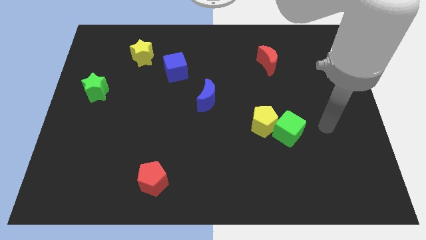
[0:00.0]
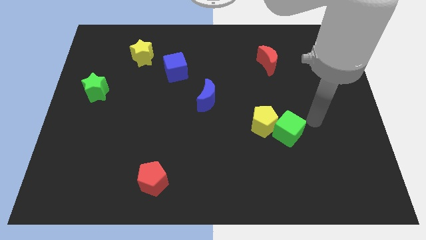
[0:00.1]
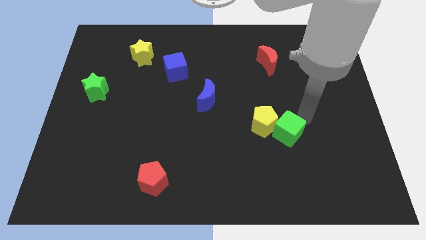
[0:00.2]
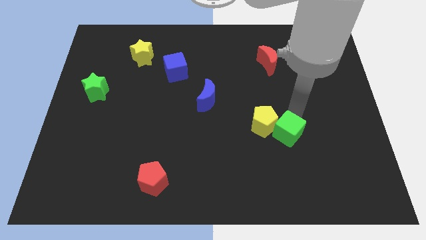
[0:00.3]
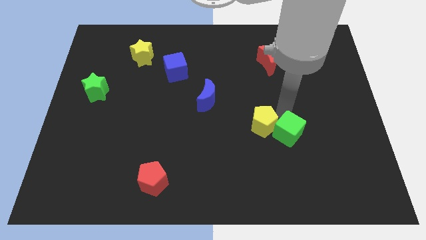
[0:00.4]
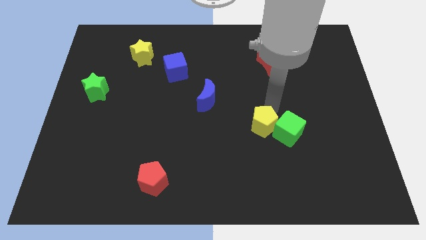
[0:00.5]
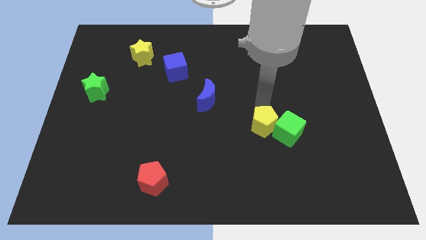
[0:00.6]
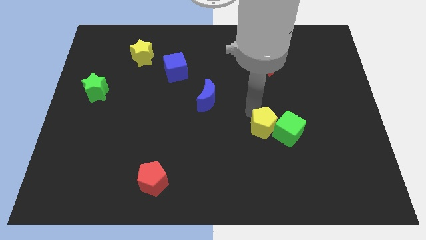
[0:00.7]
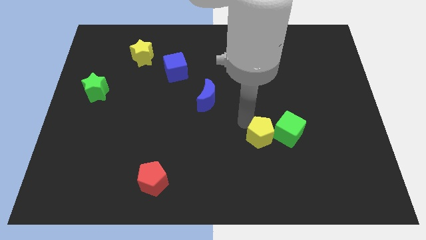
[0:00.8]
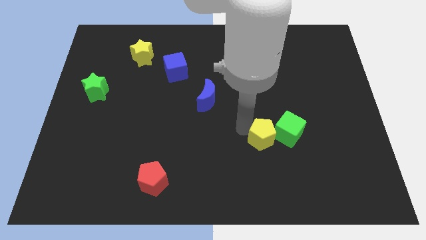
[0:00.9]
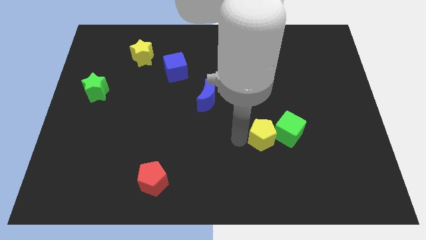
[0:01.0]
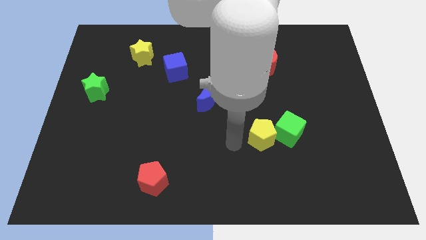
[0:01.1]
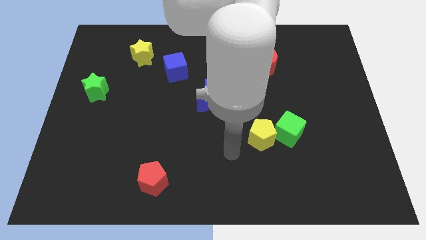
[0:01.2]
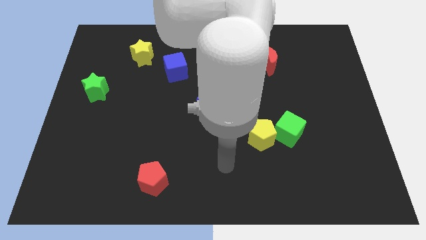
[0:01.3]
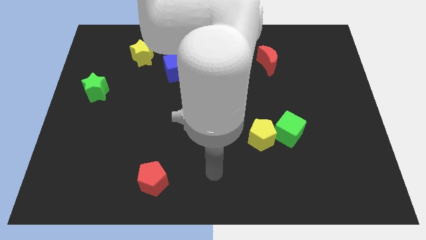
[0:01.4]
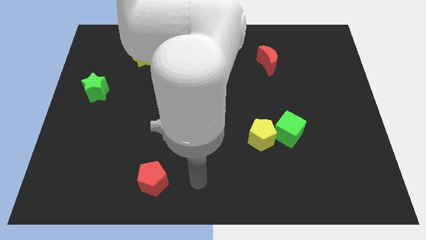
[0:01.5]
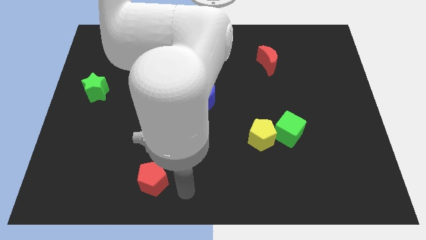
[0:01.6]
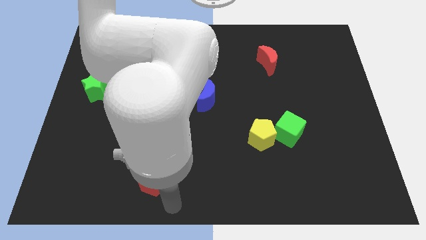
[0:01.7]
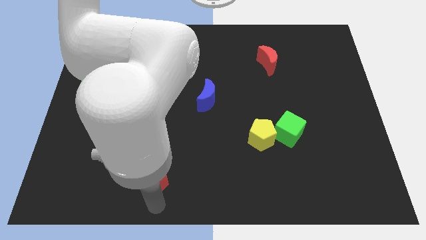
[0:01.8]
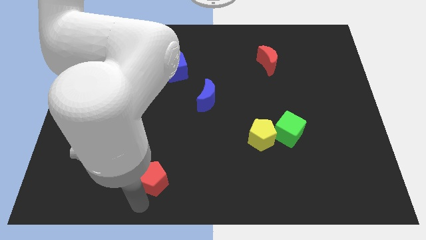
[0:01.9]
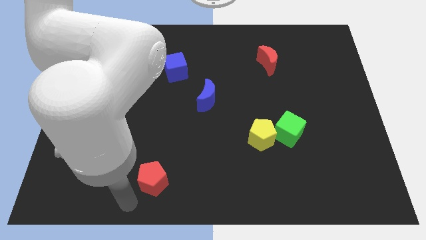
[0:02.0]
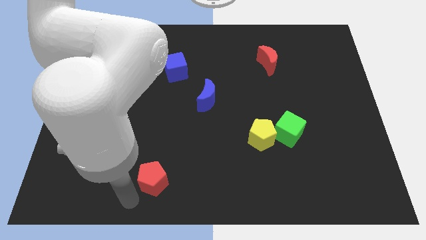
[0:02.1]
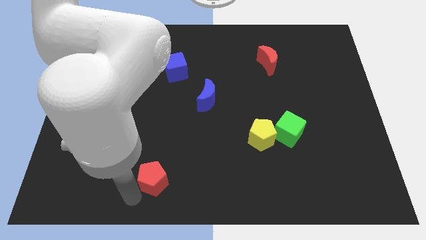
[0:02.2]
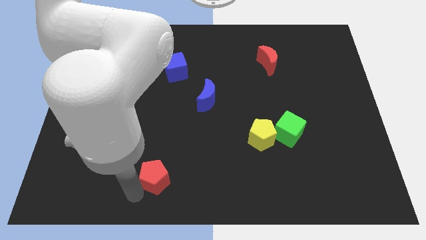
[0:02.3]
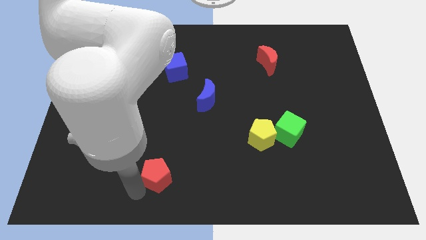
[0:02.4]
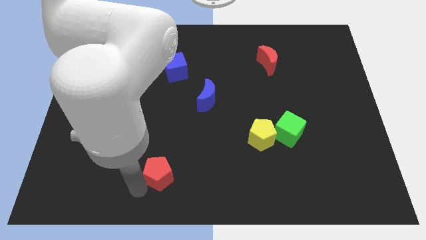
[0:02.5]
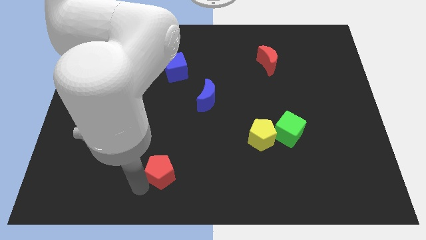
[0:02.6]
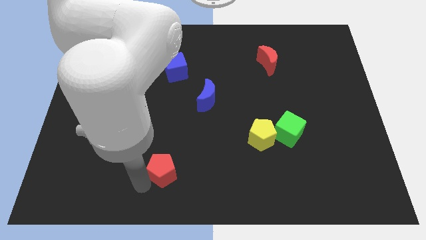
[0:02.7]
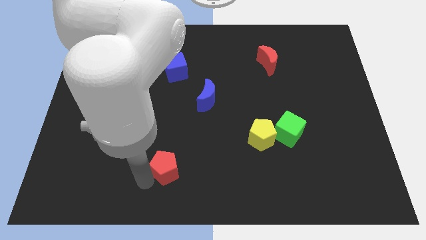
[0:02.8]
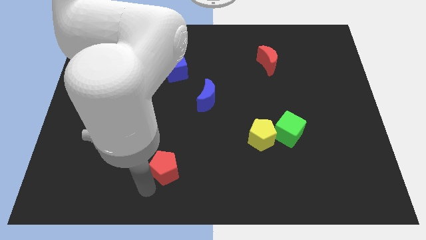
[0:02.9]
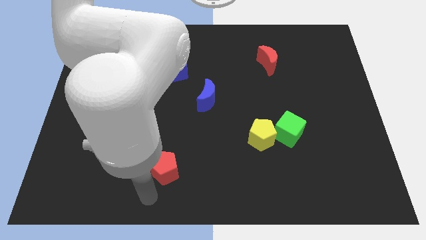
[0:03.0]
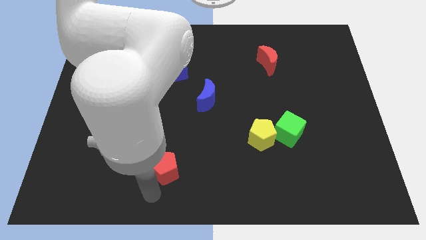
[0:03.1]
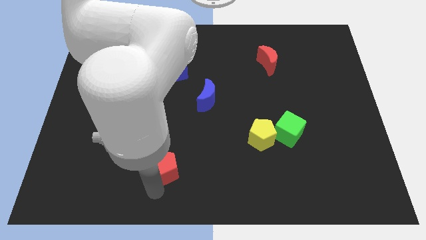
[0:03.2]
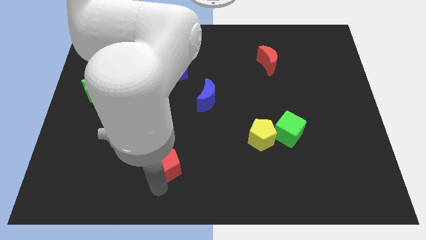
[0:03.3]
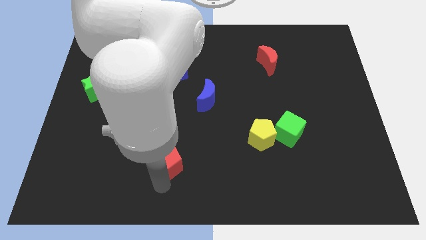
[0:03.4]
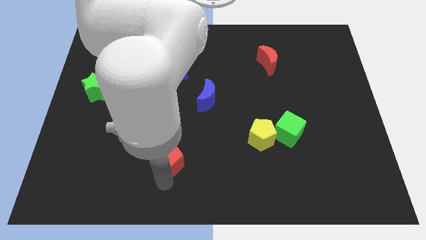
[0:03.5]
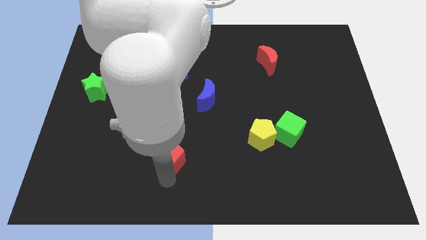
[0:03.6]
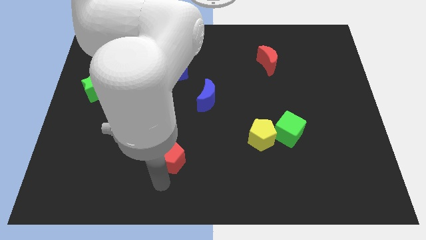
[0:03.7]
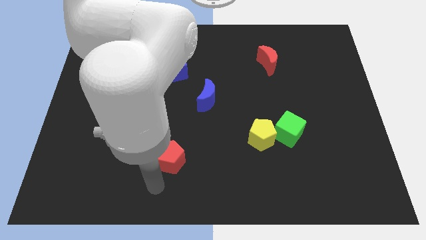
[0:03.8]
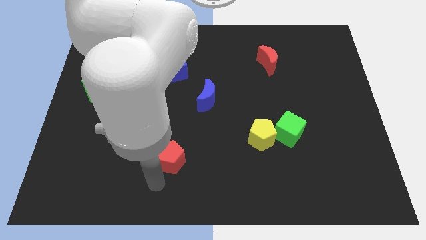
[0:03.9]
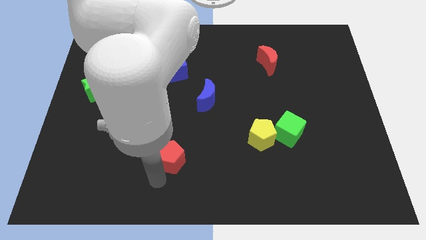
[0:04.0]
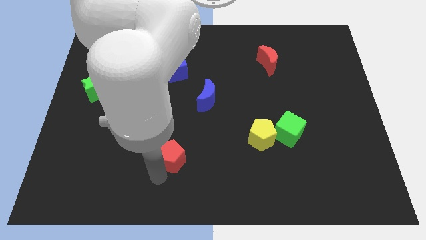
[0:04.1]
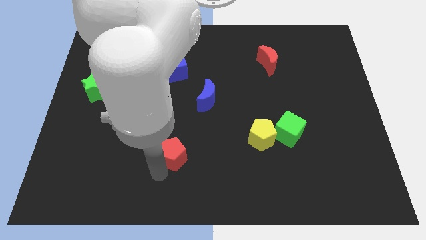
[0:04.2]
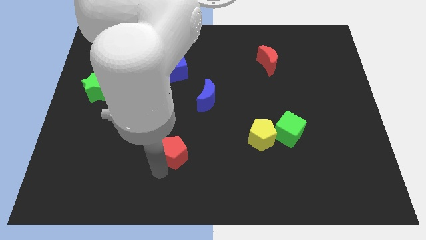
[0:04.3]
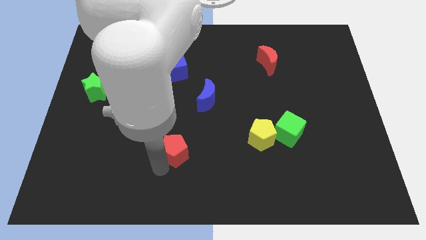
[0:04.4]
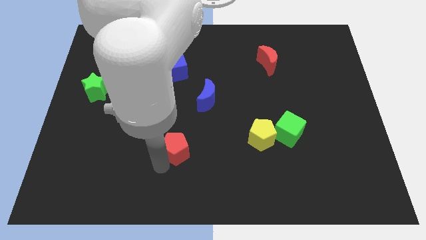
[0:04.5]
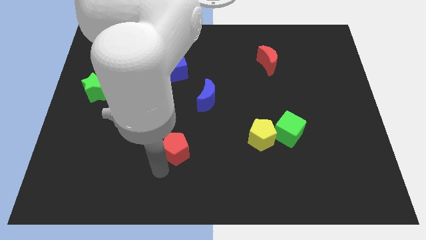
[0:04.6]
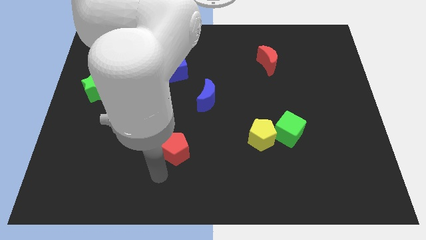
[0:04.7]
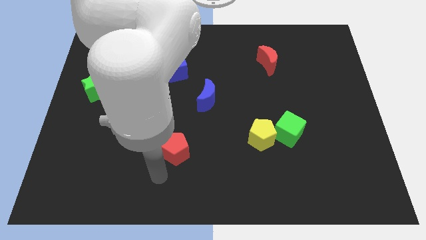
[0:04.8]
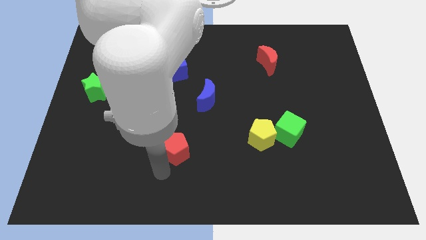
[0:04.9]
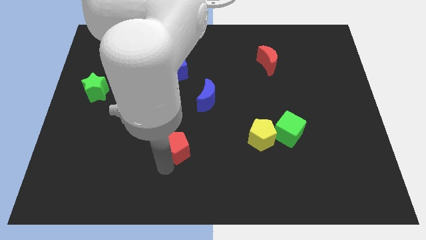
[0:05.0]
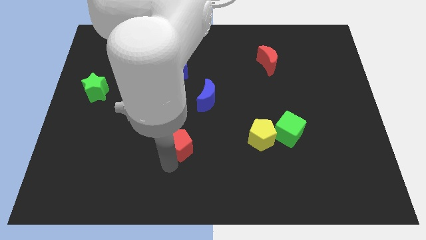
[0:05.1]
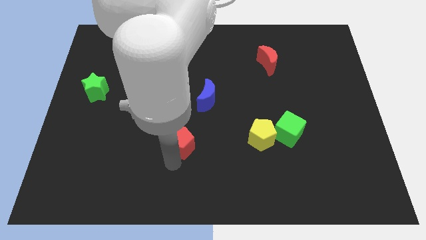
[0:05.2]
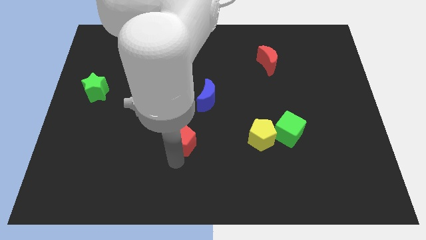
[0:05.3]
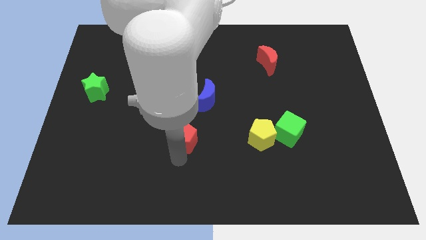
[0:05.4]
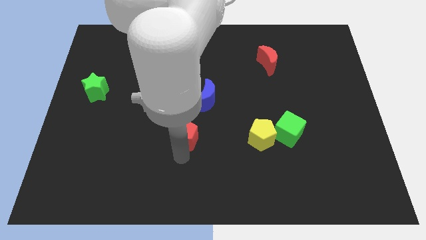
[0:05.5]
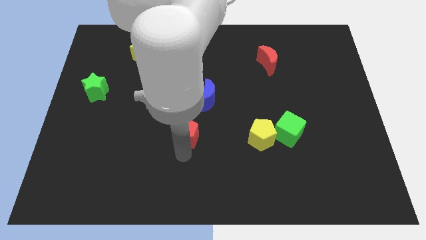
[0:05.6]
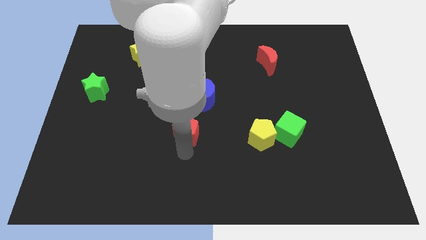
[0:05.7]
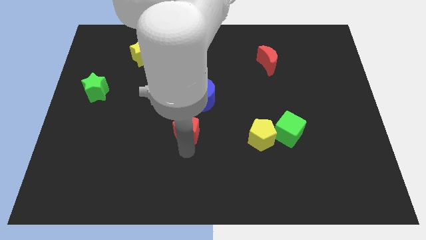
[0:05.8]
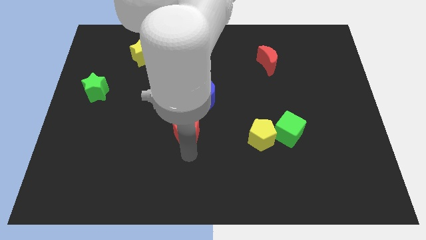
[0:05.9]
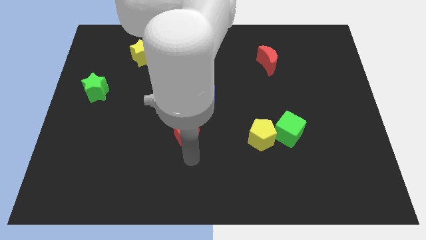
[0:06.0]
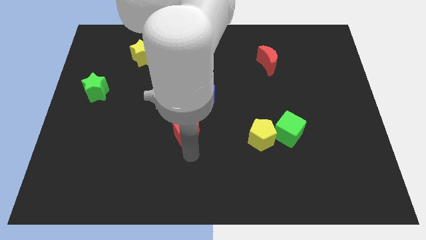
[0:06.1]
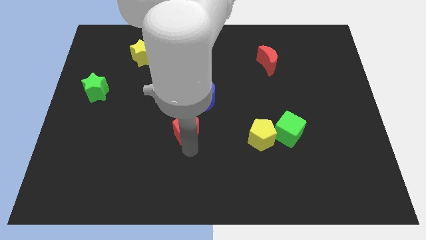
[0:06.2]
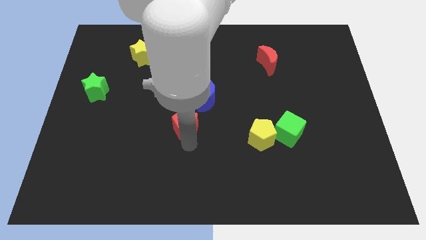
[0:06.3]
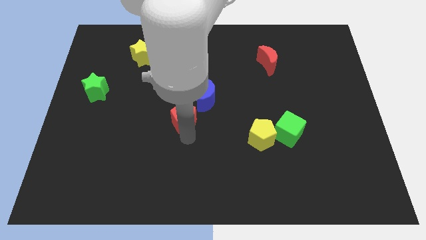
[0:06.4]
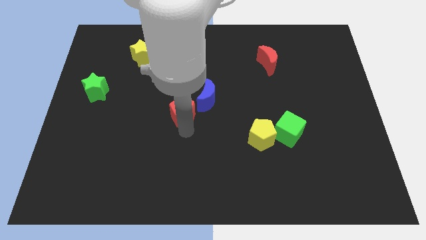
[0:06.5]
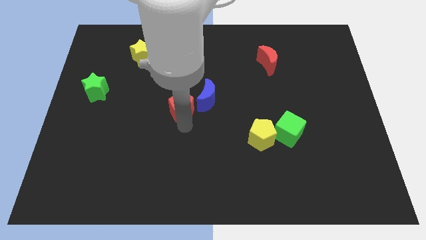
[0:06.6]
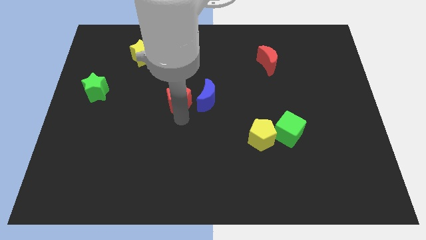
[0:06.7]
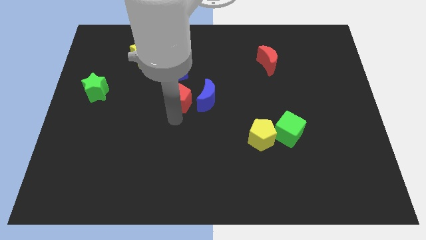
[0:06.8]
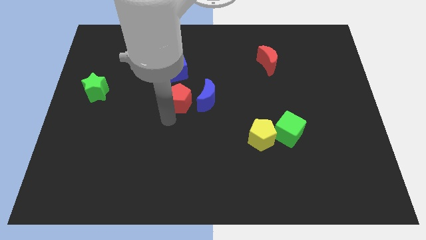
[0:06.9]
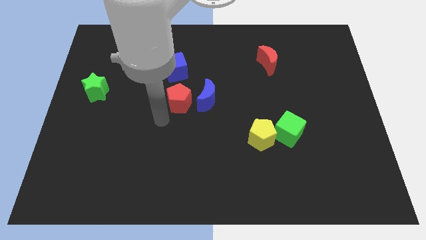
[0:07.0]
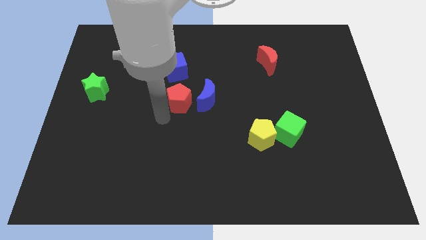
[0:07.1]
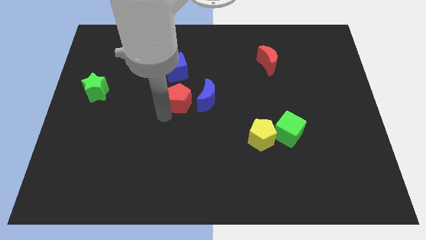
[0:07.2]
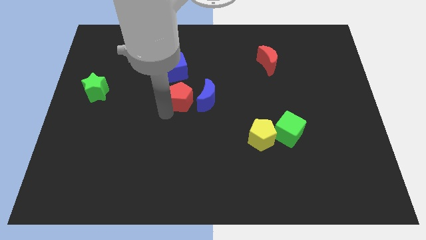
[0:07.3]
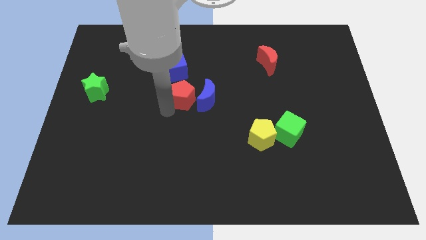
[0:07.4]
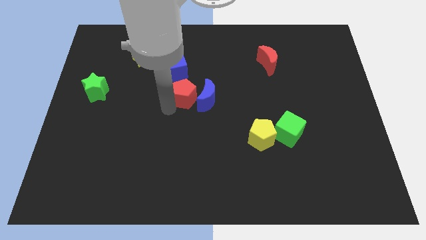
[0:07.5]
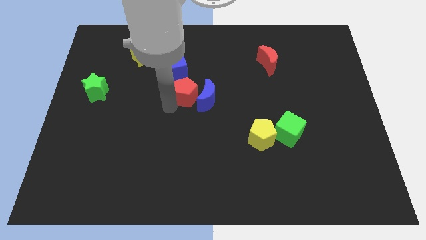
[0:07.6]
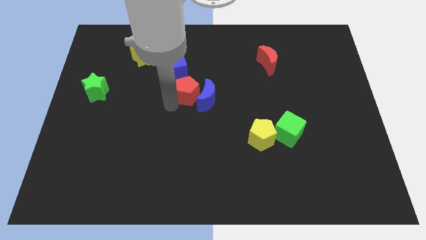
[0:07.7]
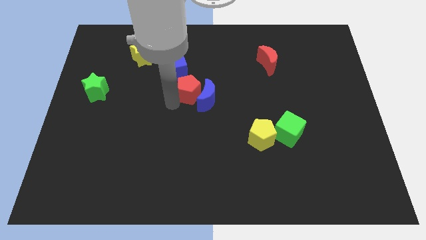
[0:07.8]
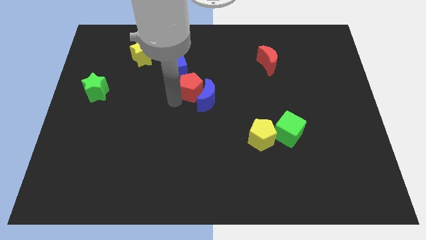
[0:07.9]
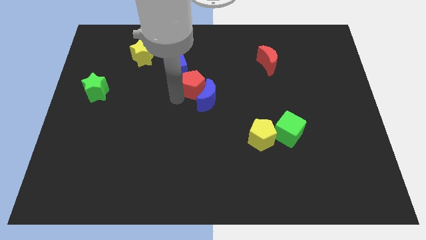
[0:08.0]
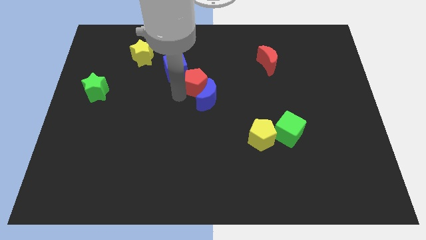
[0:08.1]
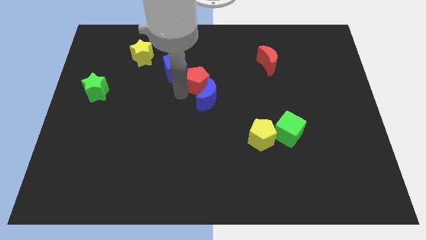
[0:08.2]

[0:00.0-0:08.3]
put the red pentagon to the right side of the blue cube
